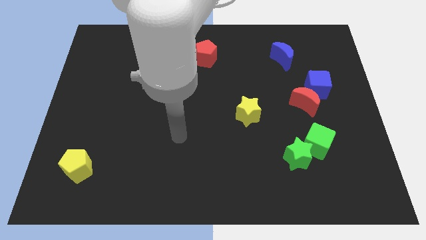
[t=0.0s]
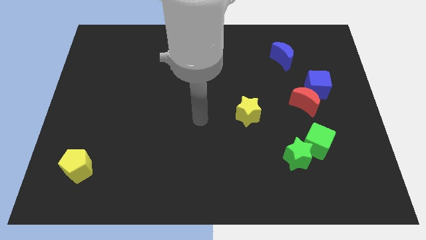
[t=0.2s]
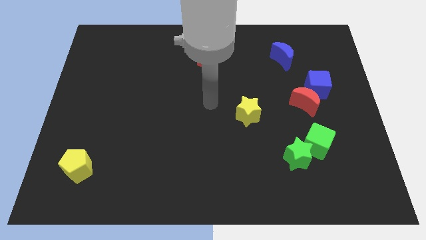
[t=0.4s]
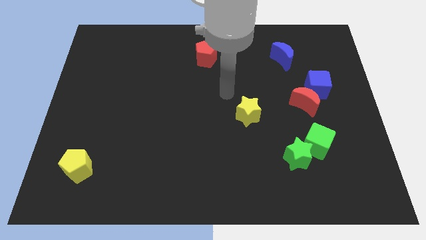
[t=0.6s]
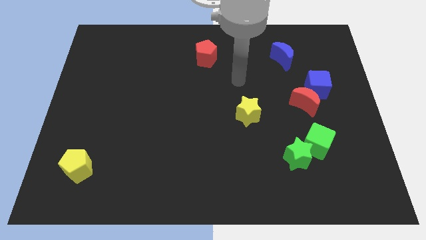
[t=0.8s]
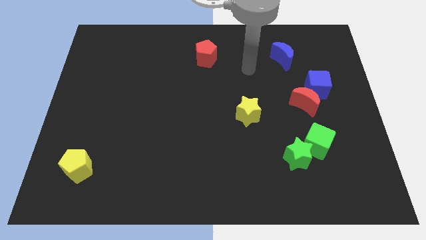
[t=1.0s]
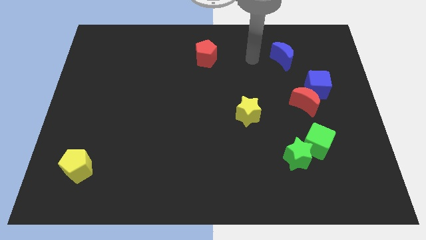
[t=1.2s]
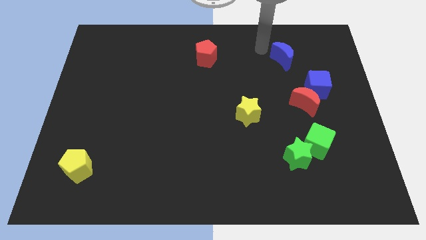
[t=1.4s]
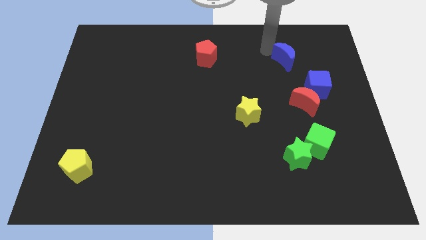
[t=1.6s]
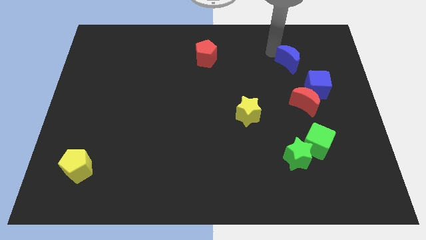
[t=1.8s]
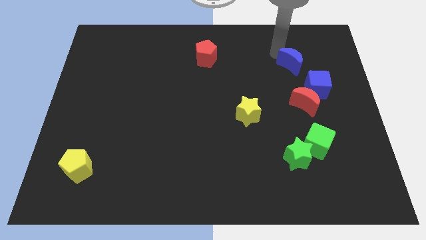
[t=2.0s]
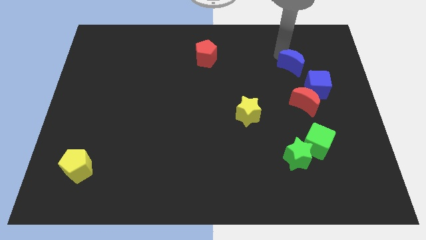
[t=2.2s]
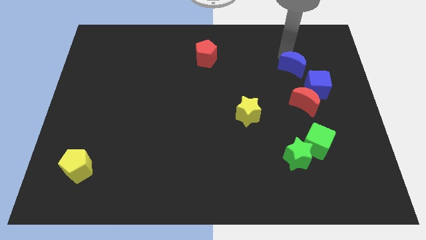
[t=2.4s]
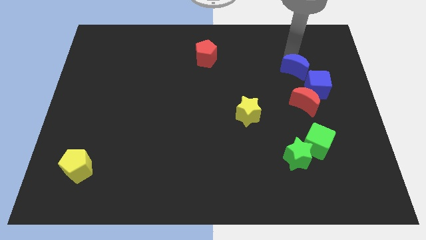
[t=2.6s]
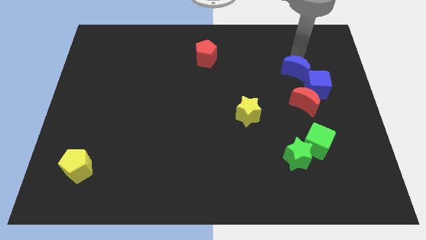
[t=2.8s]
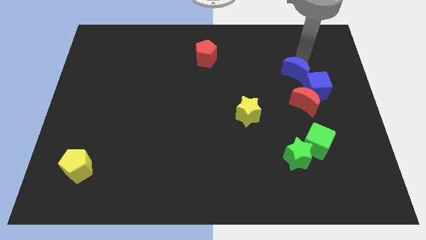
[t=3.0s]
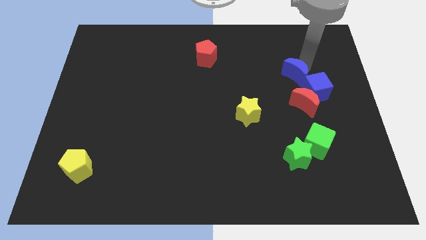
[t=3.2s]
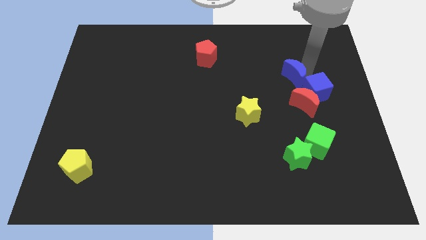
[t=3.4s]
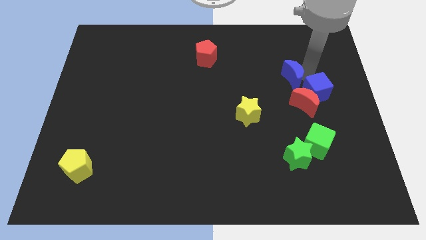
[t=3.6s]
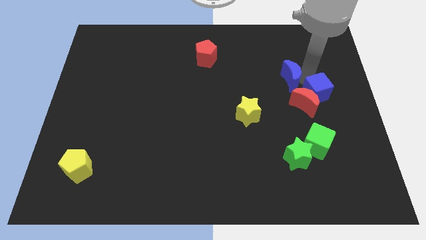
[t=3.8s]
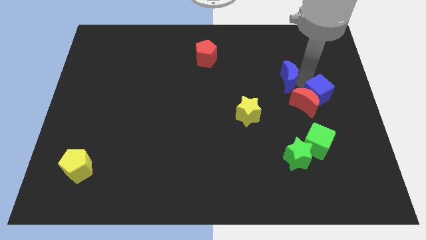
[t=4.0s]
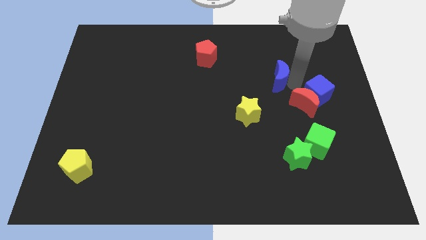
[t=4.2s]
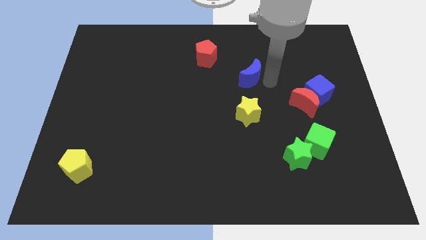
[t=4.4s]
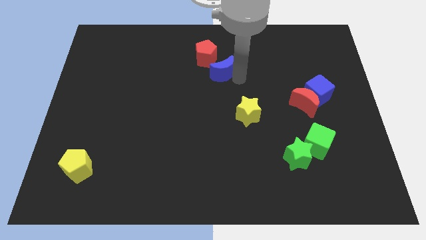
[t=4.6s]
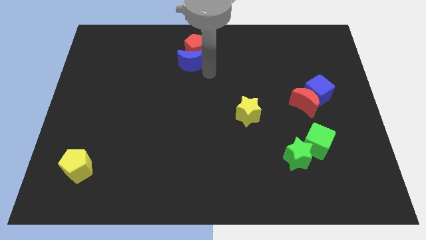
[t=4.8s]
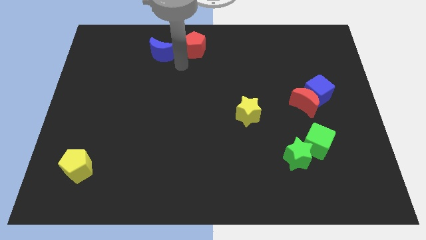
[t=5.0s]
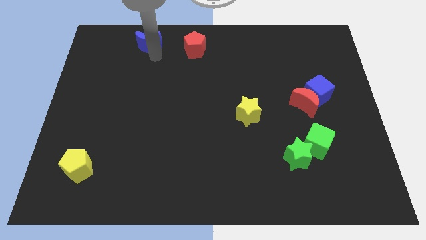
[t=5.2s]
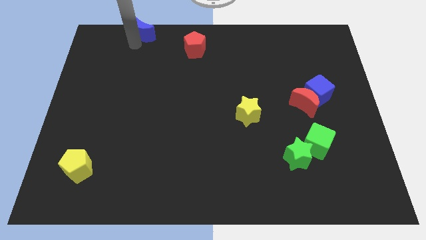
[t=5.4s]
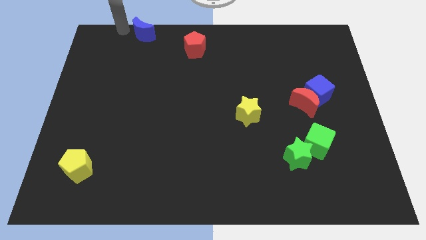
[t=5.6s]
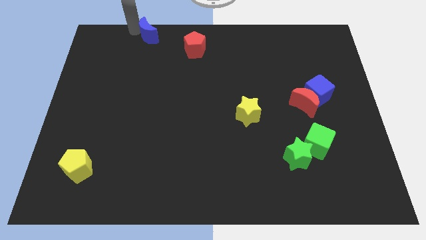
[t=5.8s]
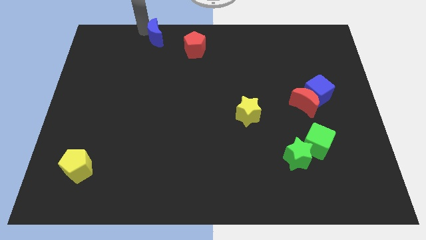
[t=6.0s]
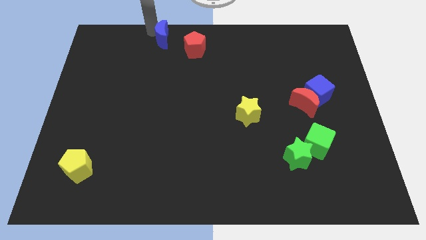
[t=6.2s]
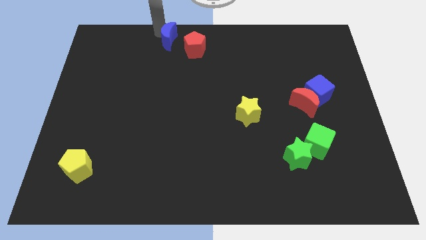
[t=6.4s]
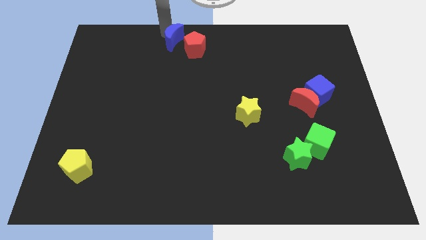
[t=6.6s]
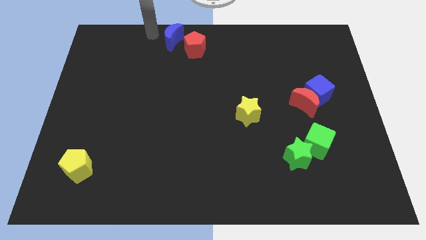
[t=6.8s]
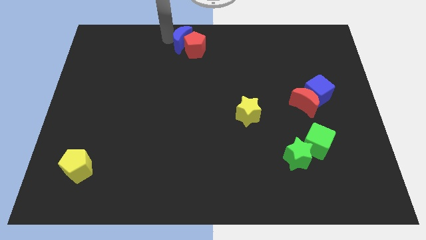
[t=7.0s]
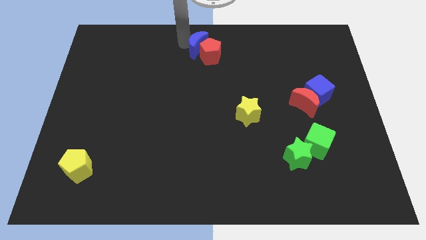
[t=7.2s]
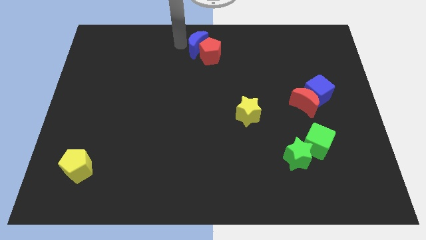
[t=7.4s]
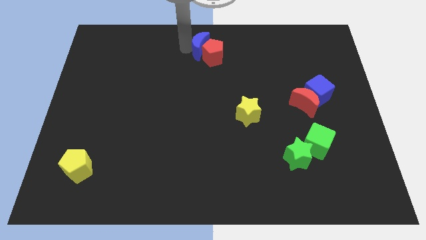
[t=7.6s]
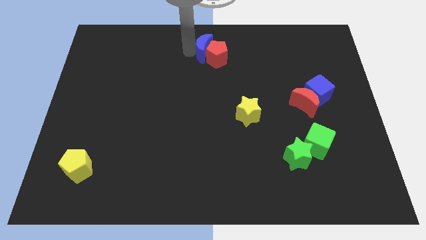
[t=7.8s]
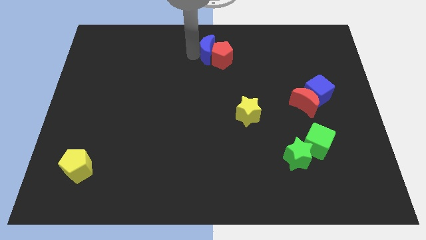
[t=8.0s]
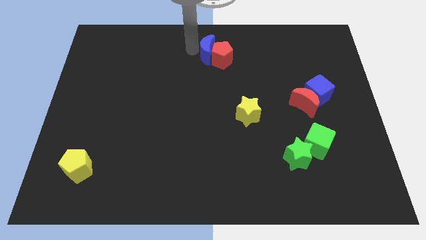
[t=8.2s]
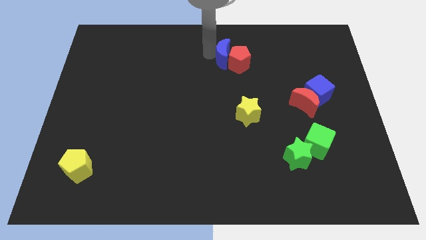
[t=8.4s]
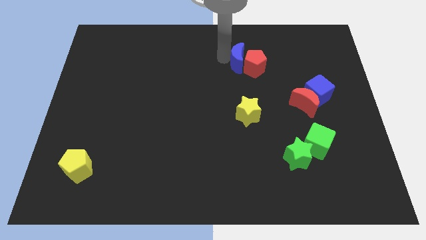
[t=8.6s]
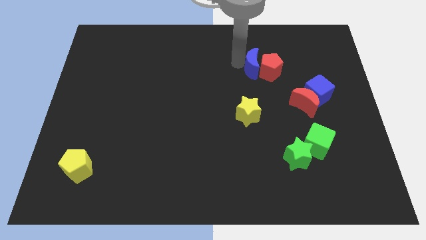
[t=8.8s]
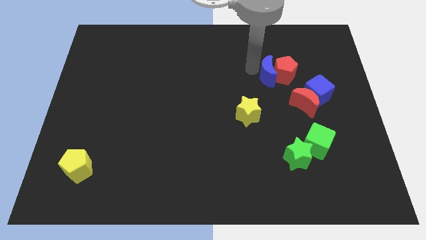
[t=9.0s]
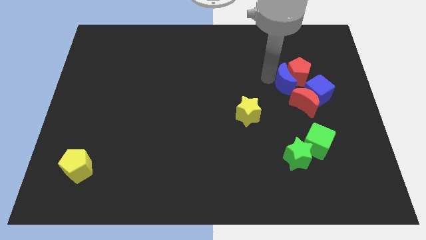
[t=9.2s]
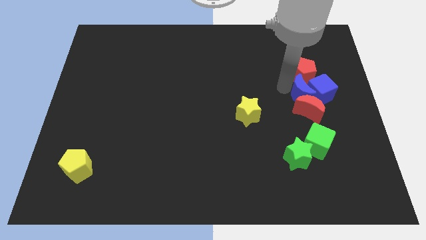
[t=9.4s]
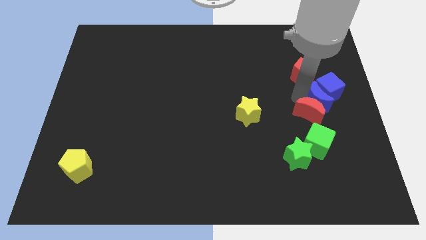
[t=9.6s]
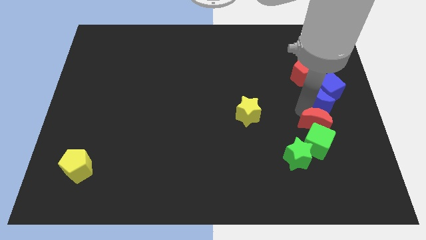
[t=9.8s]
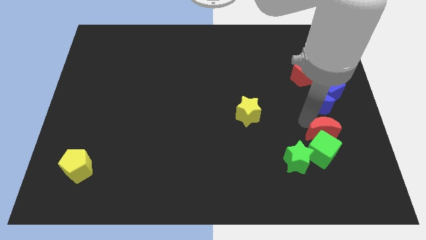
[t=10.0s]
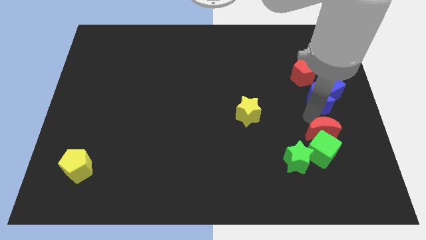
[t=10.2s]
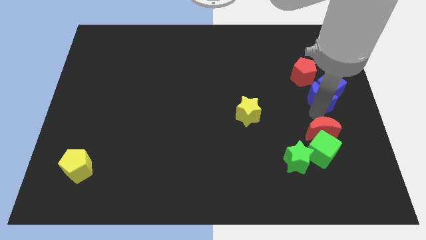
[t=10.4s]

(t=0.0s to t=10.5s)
push the blue moon to the right side

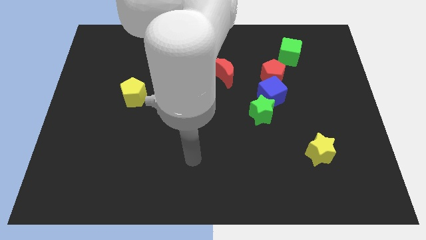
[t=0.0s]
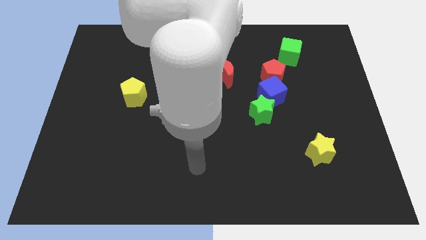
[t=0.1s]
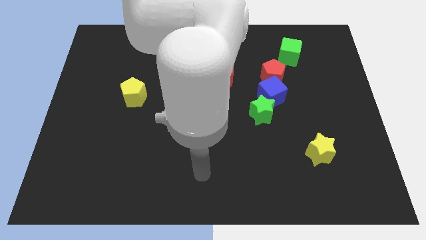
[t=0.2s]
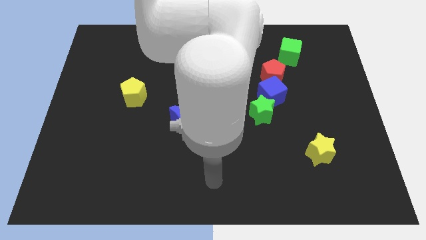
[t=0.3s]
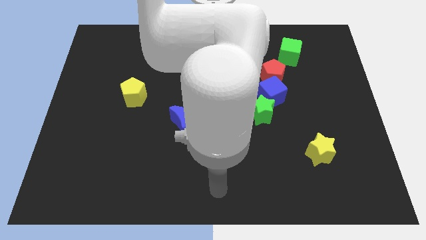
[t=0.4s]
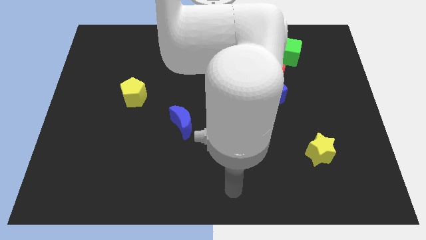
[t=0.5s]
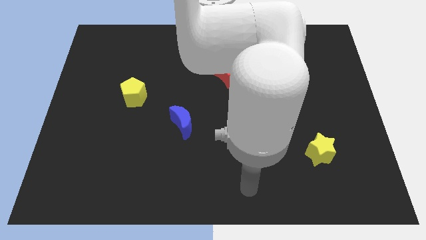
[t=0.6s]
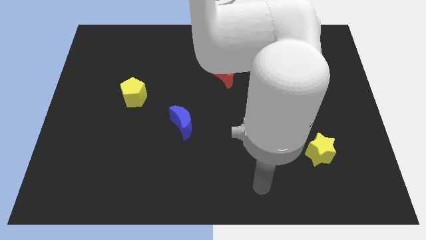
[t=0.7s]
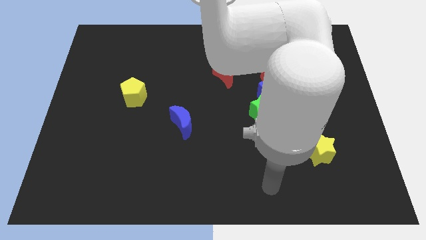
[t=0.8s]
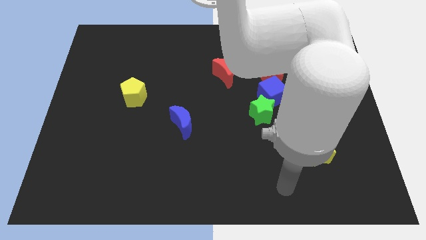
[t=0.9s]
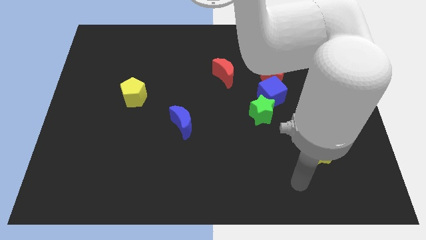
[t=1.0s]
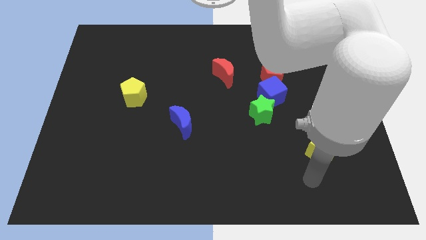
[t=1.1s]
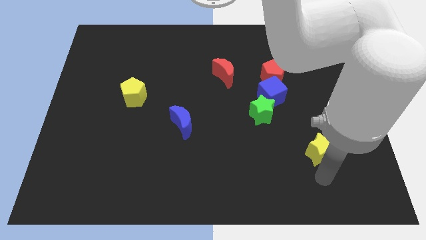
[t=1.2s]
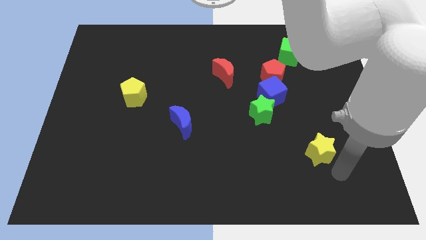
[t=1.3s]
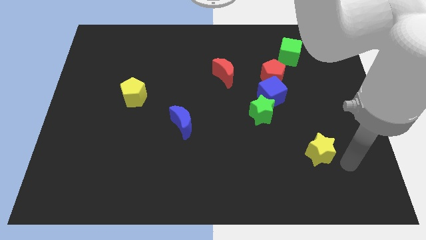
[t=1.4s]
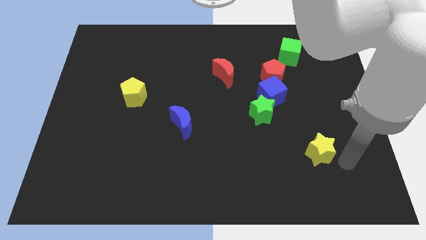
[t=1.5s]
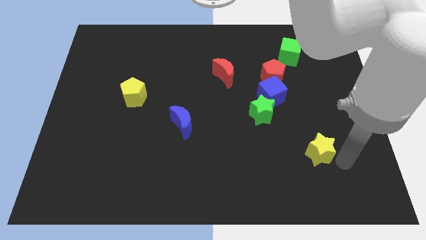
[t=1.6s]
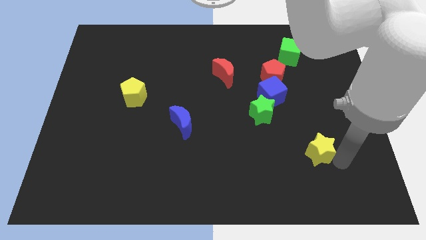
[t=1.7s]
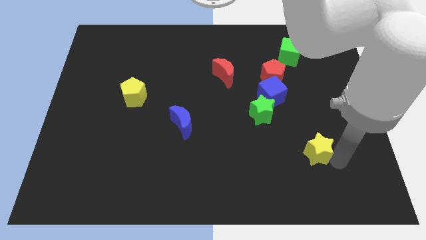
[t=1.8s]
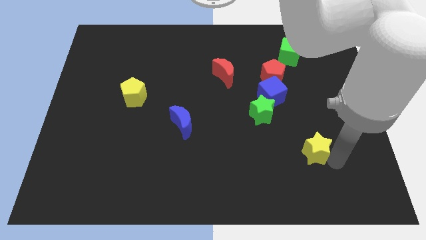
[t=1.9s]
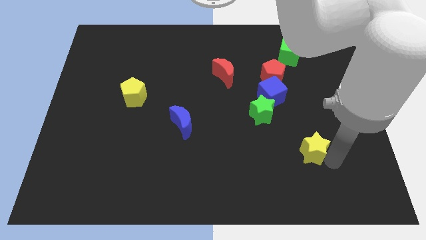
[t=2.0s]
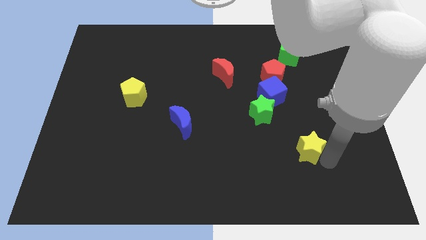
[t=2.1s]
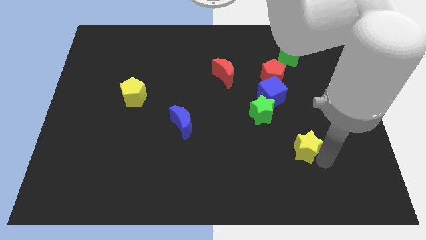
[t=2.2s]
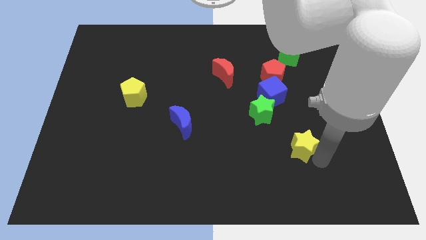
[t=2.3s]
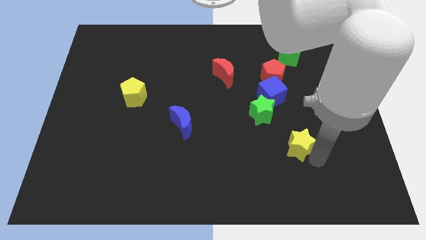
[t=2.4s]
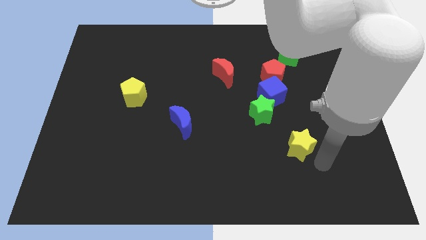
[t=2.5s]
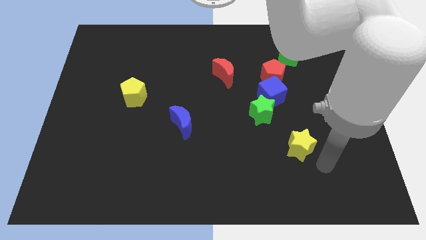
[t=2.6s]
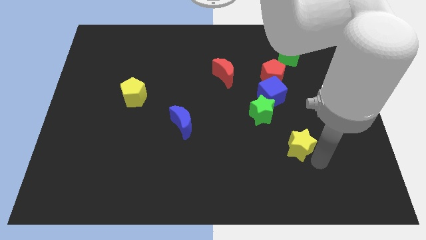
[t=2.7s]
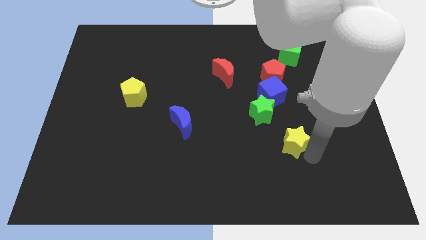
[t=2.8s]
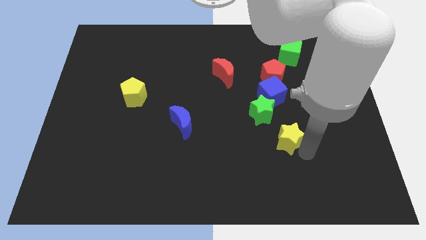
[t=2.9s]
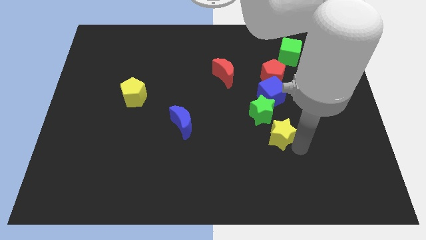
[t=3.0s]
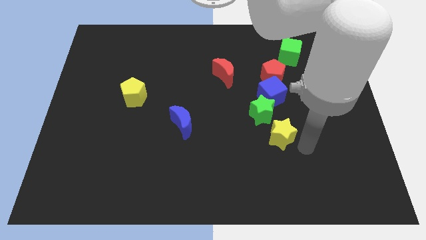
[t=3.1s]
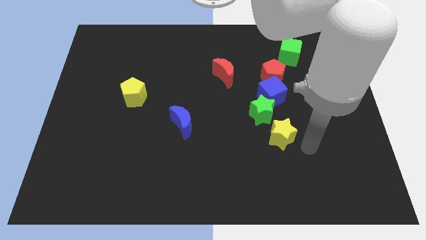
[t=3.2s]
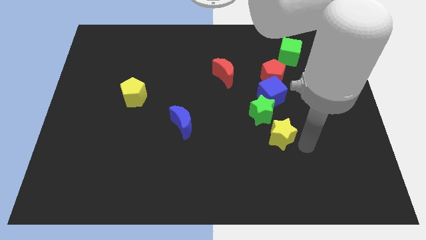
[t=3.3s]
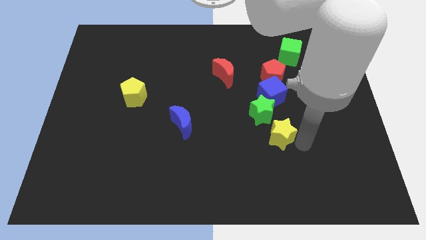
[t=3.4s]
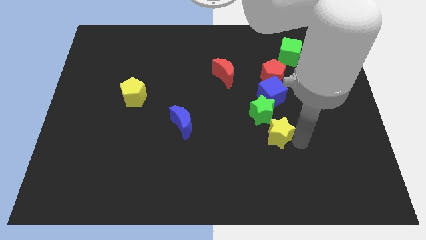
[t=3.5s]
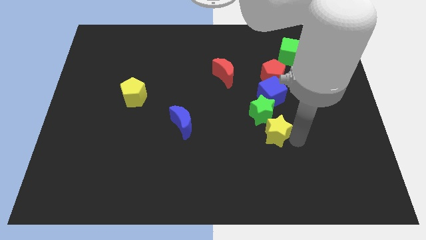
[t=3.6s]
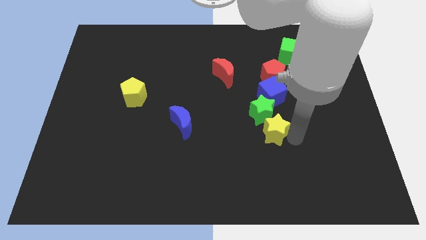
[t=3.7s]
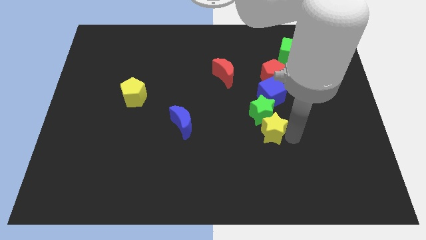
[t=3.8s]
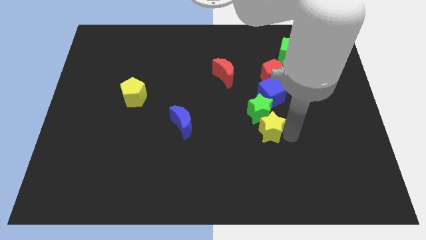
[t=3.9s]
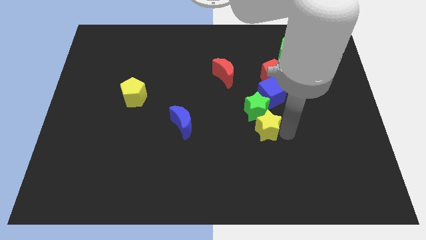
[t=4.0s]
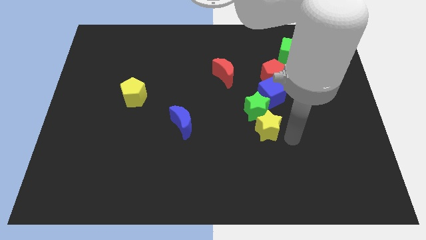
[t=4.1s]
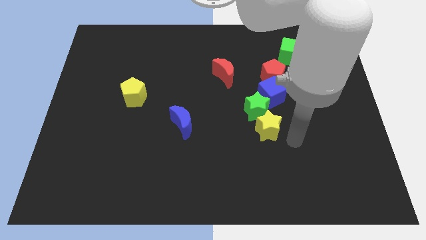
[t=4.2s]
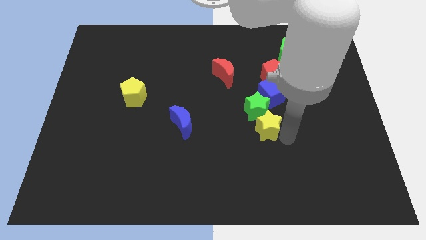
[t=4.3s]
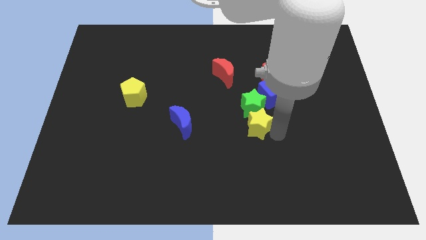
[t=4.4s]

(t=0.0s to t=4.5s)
move the yellow star to the middle
